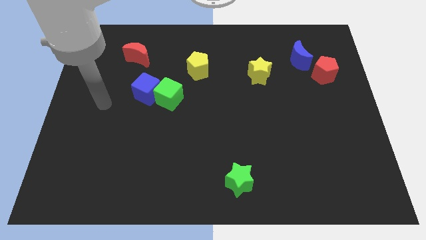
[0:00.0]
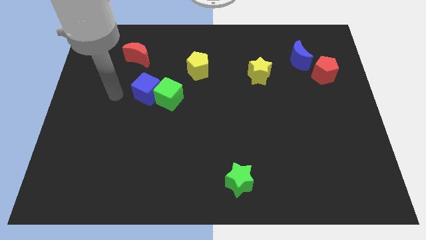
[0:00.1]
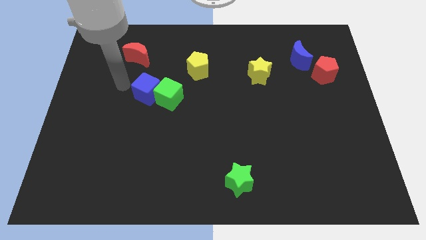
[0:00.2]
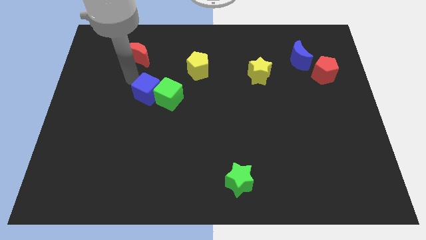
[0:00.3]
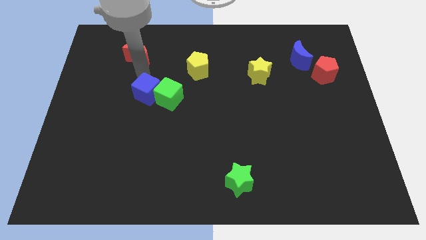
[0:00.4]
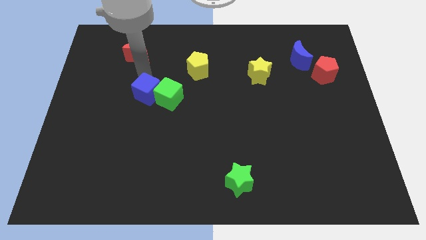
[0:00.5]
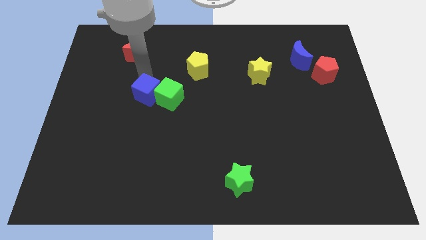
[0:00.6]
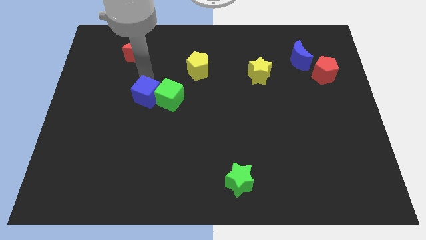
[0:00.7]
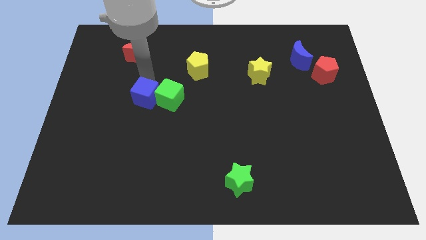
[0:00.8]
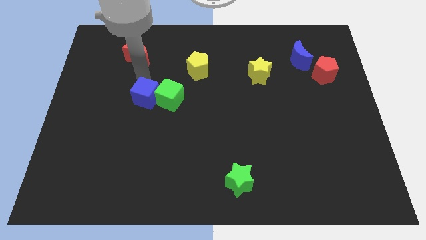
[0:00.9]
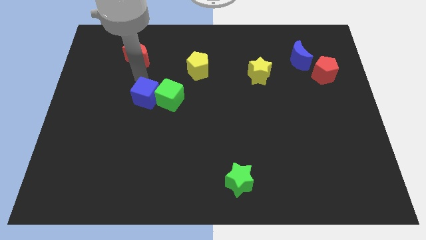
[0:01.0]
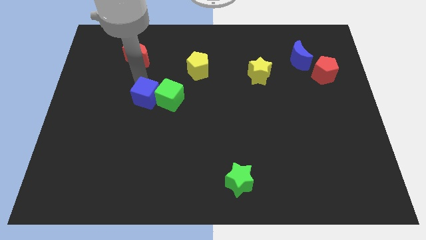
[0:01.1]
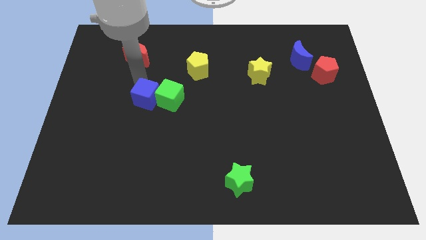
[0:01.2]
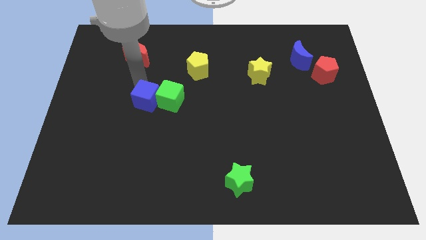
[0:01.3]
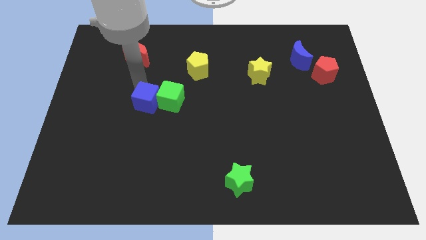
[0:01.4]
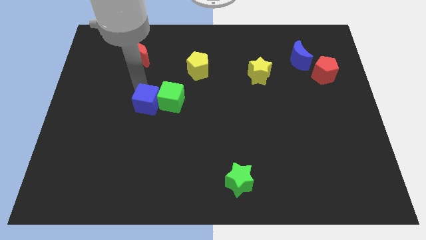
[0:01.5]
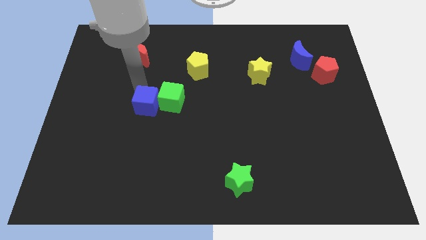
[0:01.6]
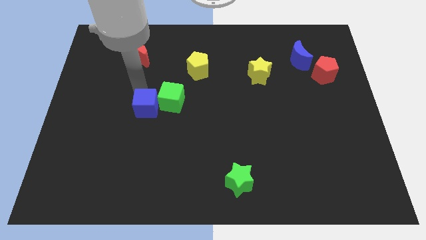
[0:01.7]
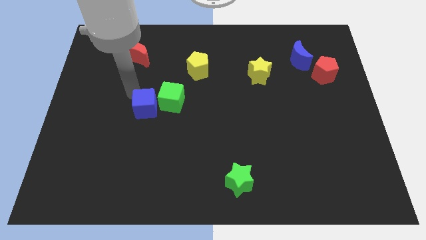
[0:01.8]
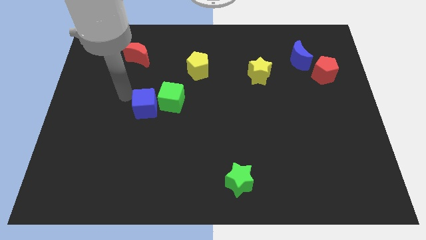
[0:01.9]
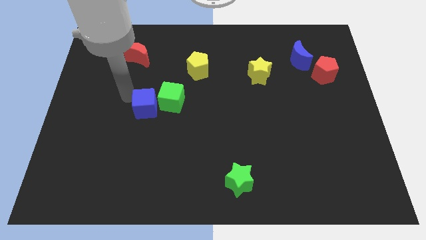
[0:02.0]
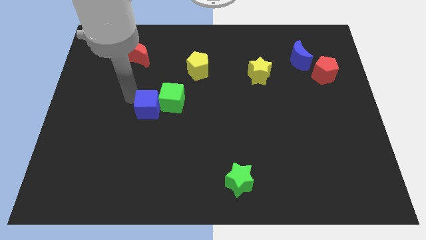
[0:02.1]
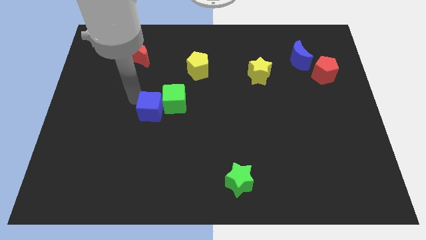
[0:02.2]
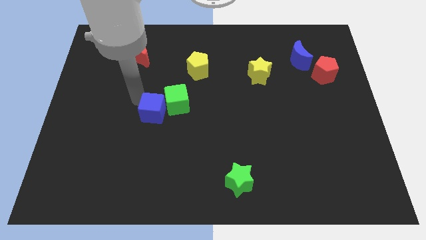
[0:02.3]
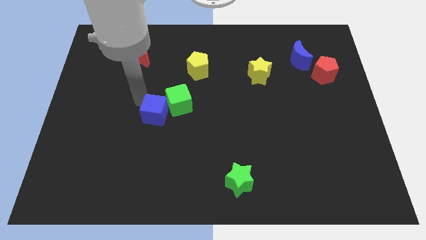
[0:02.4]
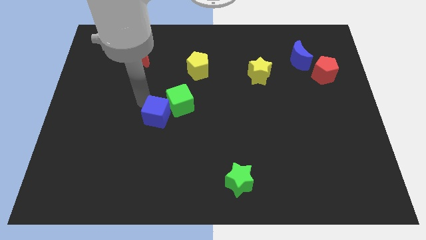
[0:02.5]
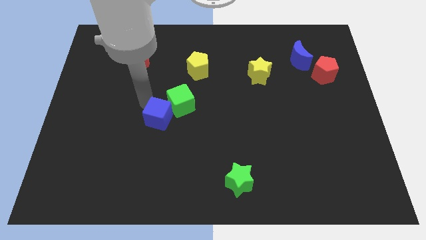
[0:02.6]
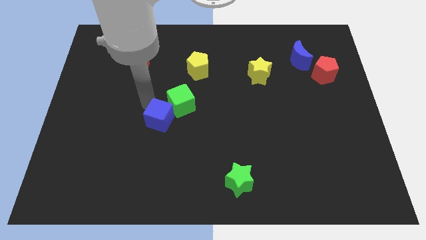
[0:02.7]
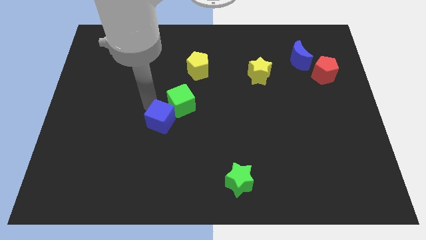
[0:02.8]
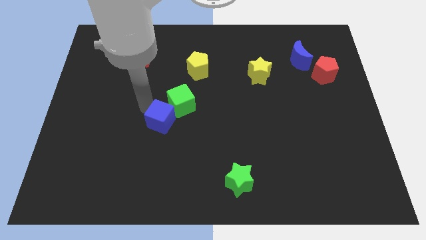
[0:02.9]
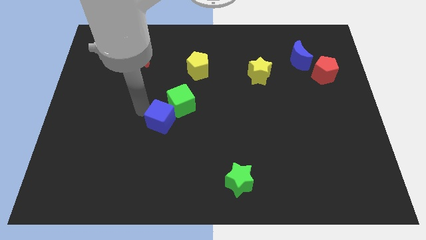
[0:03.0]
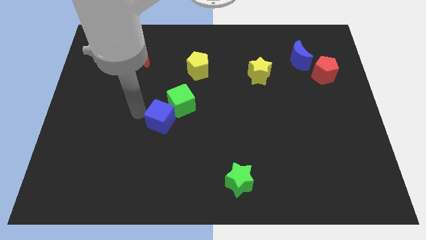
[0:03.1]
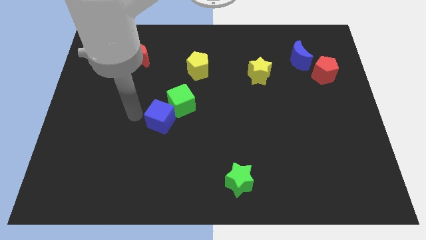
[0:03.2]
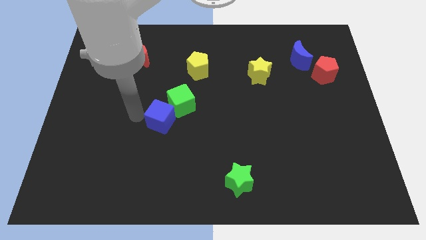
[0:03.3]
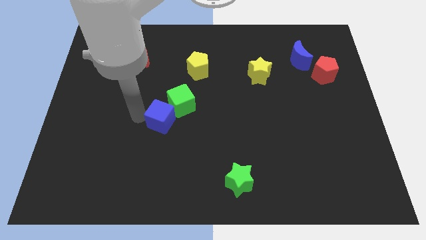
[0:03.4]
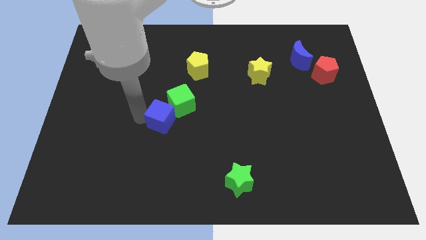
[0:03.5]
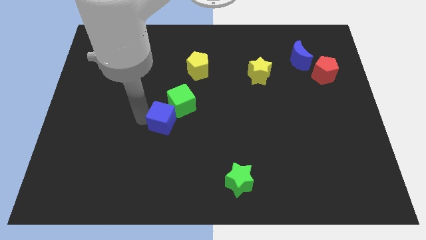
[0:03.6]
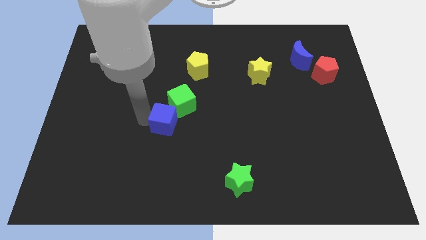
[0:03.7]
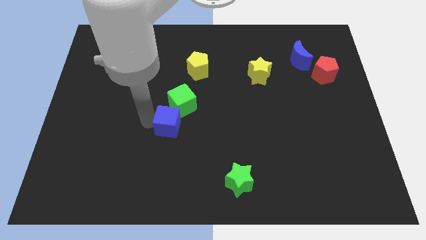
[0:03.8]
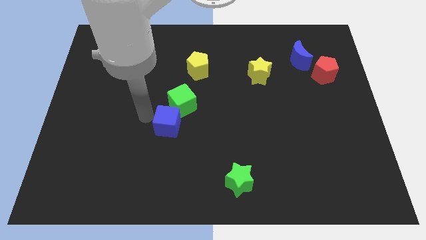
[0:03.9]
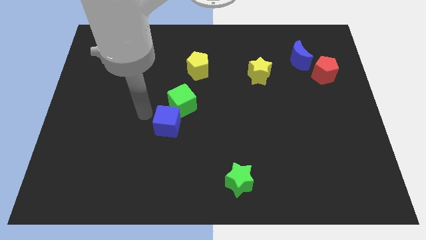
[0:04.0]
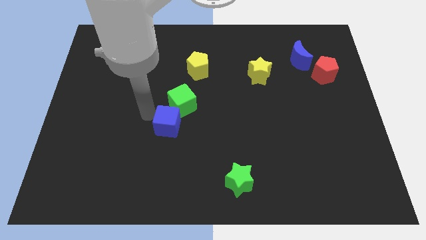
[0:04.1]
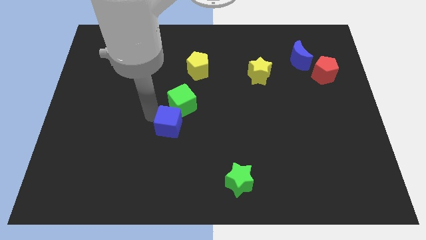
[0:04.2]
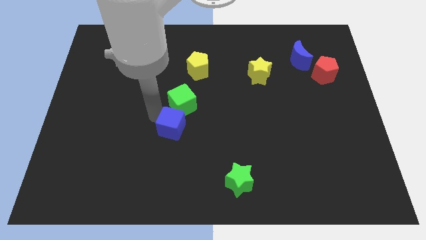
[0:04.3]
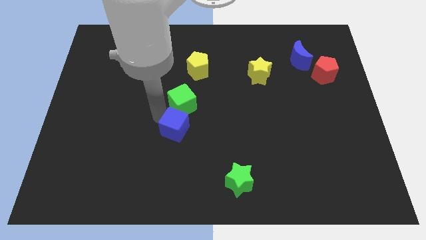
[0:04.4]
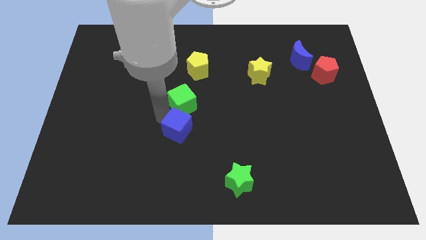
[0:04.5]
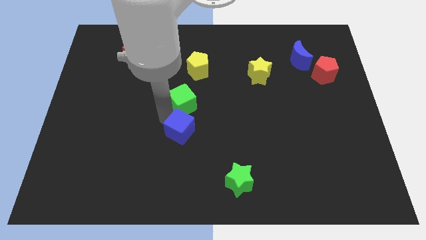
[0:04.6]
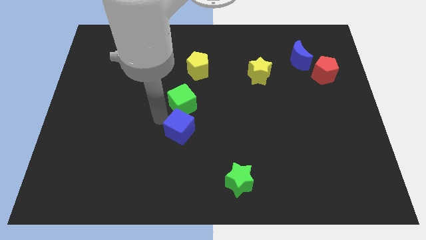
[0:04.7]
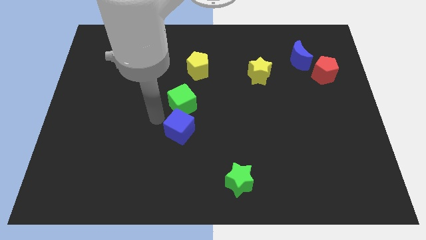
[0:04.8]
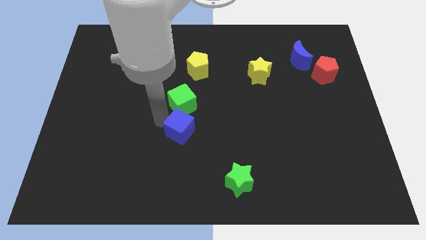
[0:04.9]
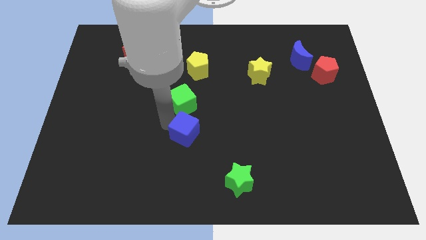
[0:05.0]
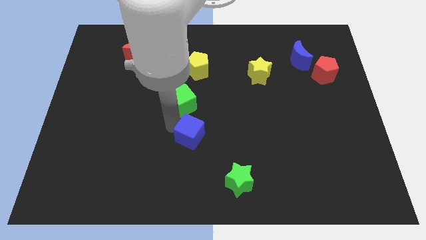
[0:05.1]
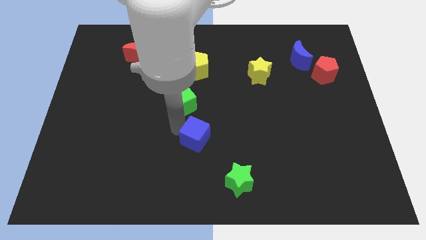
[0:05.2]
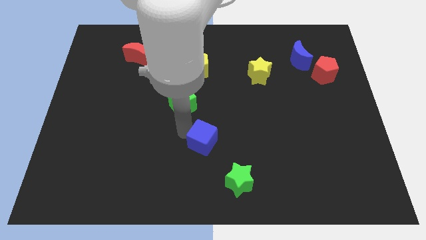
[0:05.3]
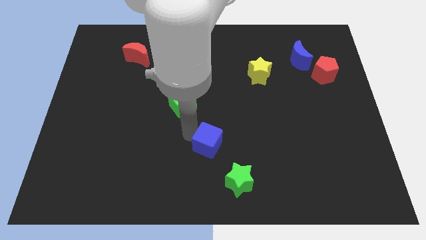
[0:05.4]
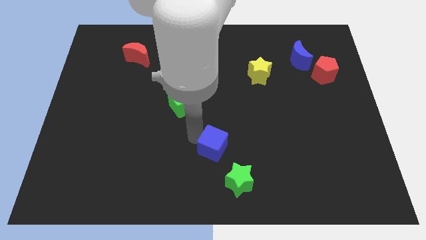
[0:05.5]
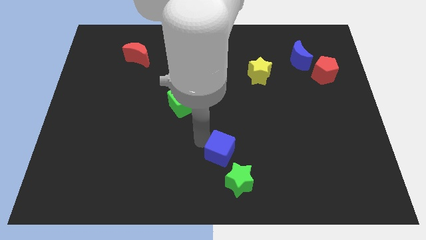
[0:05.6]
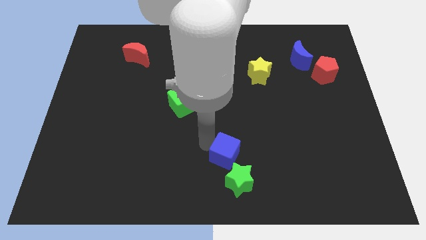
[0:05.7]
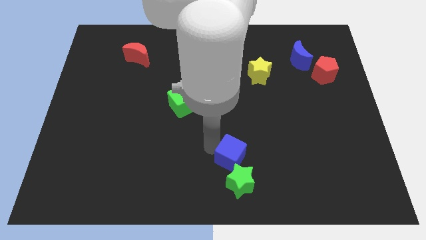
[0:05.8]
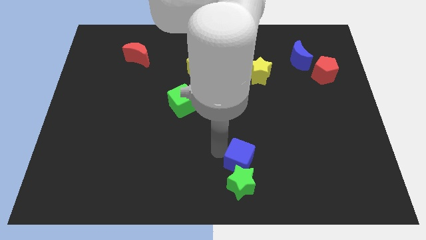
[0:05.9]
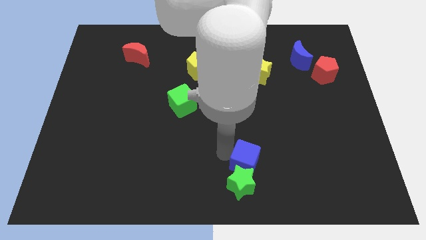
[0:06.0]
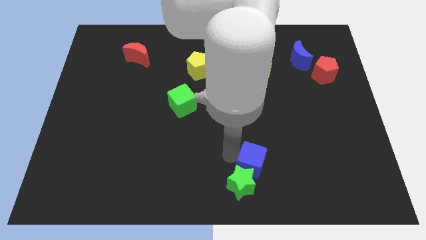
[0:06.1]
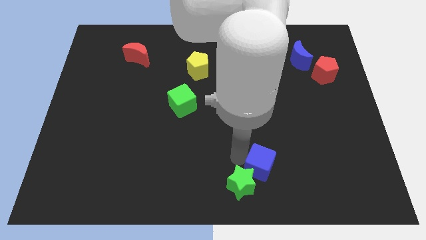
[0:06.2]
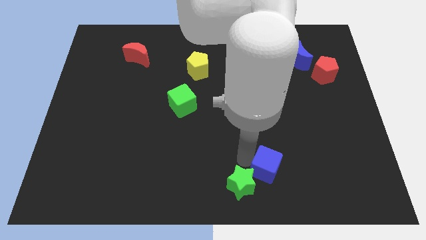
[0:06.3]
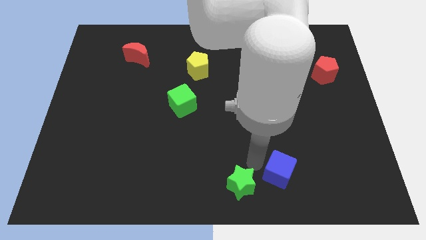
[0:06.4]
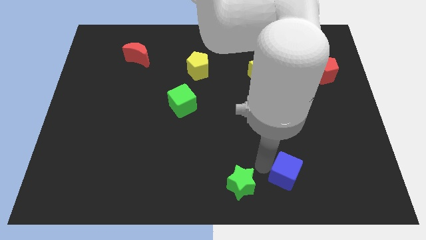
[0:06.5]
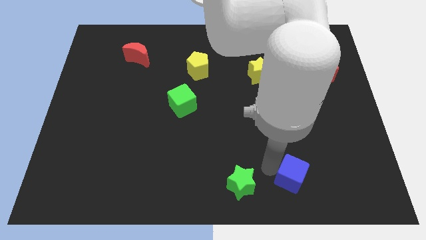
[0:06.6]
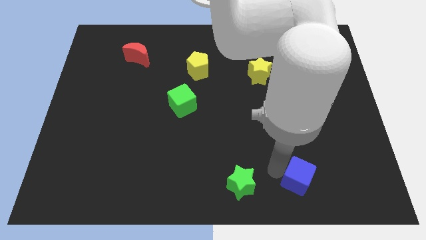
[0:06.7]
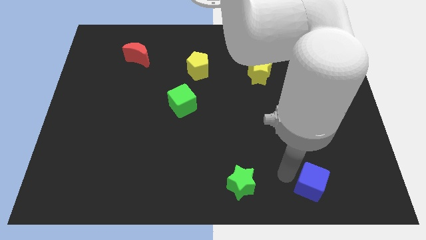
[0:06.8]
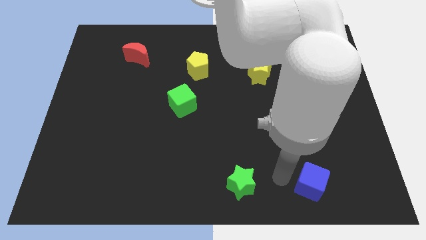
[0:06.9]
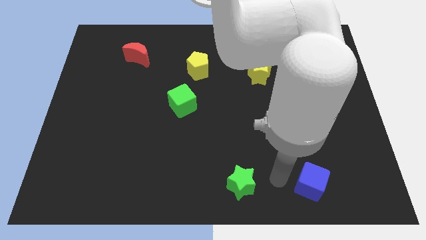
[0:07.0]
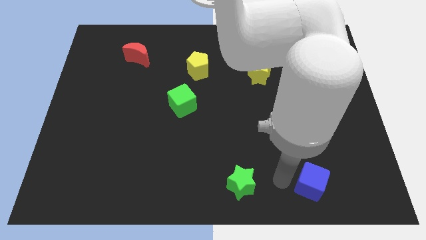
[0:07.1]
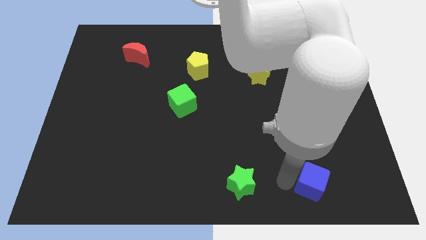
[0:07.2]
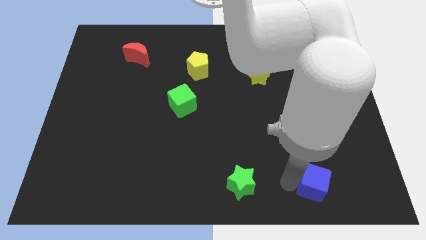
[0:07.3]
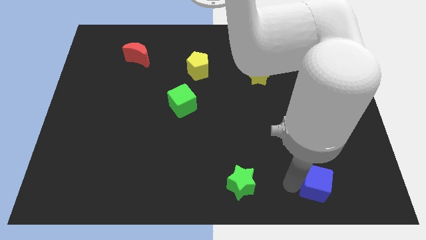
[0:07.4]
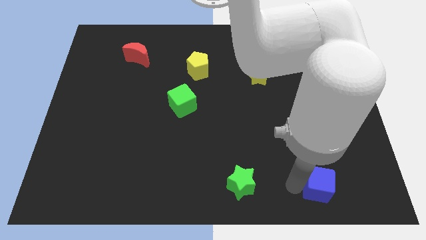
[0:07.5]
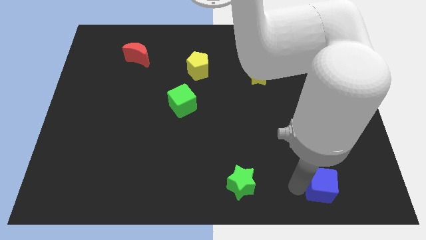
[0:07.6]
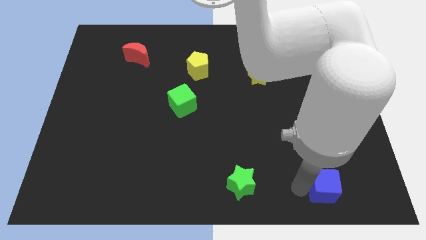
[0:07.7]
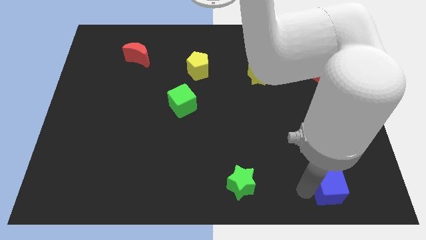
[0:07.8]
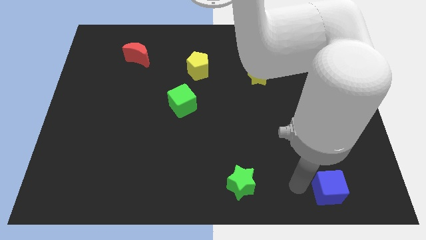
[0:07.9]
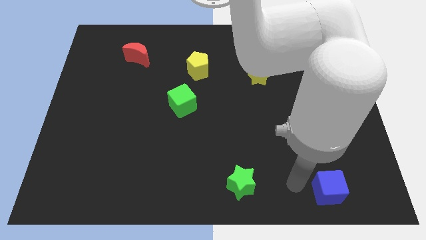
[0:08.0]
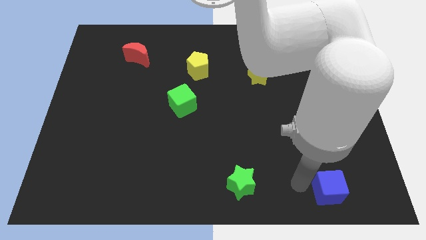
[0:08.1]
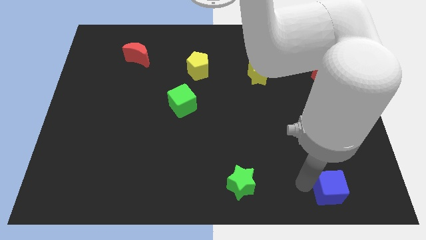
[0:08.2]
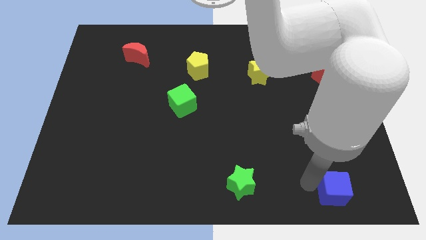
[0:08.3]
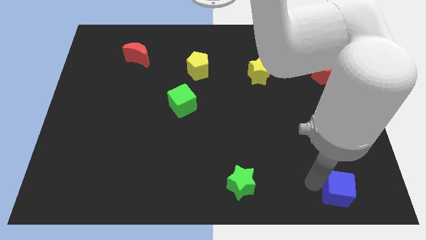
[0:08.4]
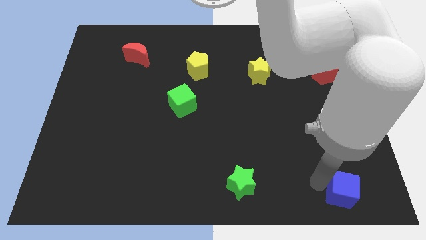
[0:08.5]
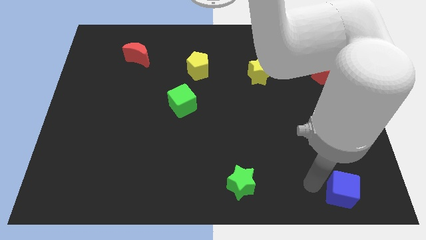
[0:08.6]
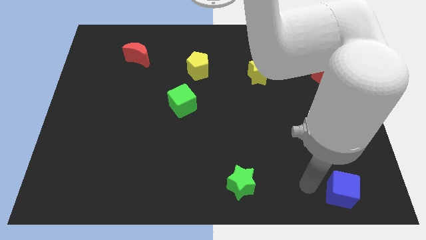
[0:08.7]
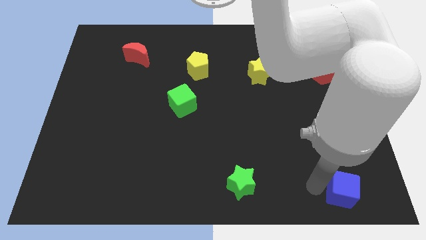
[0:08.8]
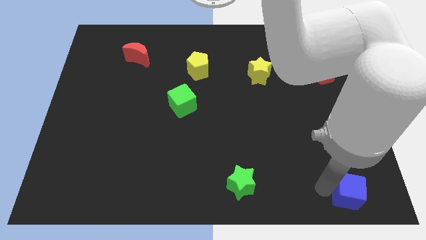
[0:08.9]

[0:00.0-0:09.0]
move the blue cube to the lower right corner
